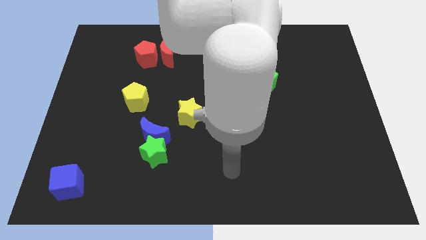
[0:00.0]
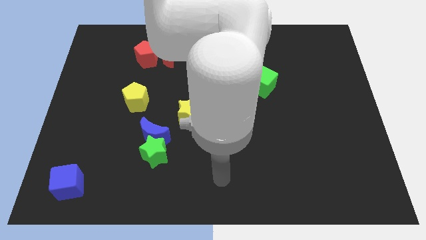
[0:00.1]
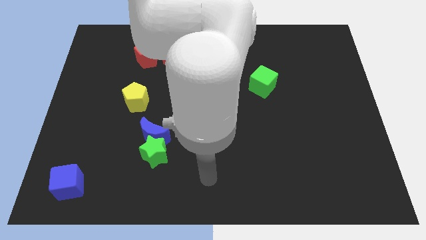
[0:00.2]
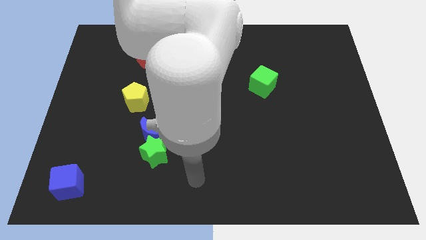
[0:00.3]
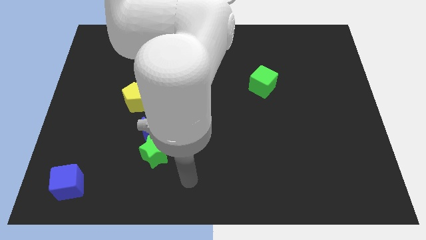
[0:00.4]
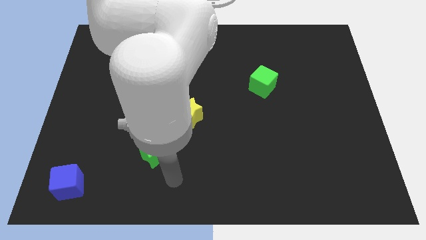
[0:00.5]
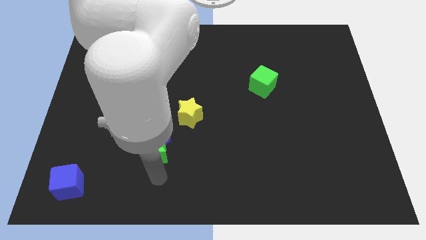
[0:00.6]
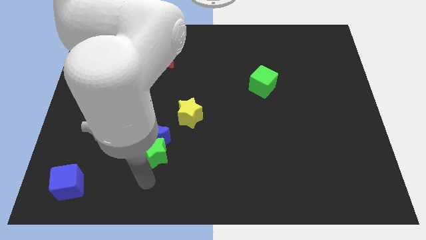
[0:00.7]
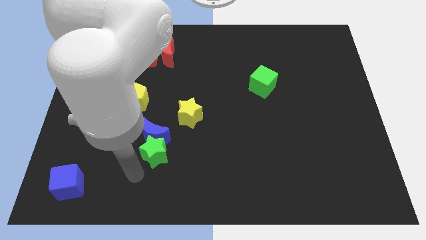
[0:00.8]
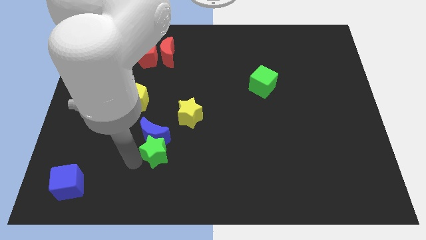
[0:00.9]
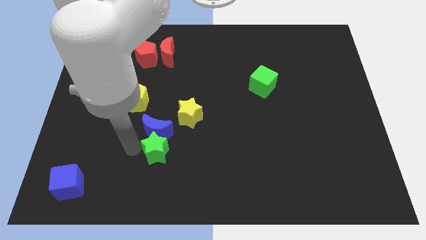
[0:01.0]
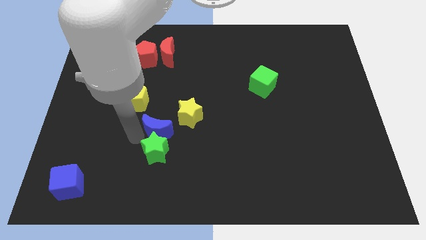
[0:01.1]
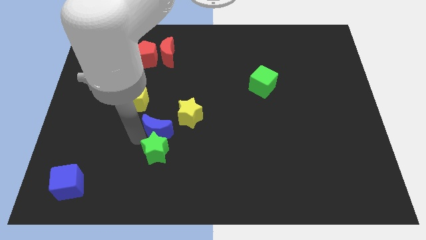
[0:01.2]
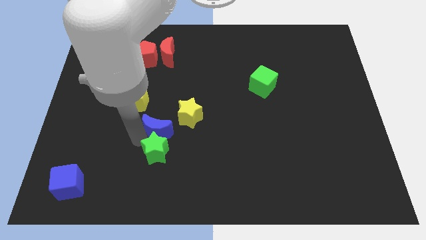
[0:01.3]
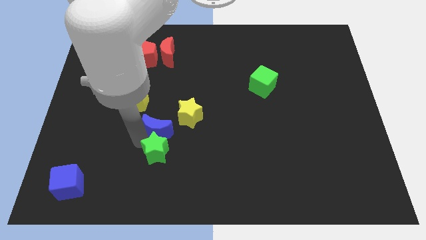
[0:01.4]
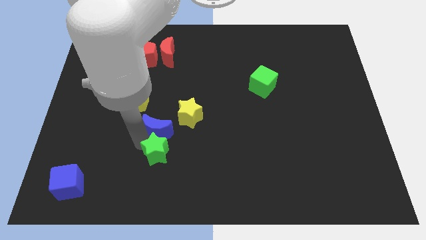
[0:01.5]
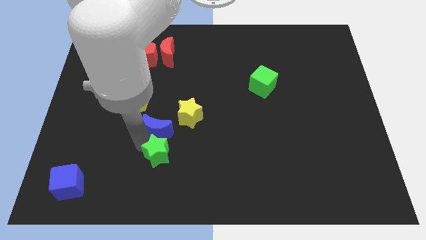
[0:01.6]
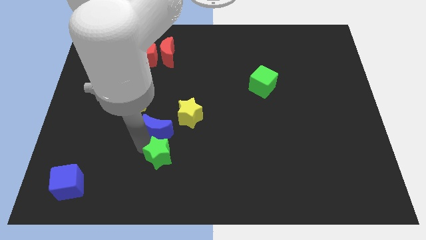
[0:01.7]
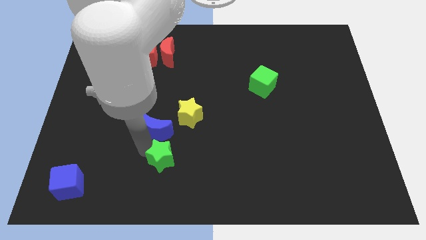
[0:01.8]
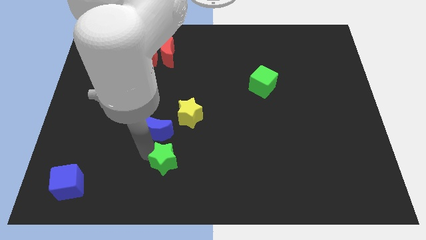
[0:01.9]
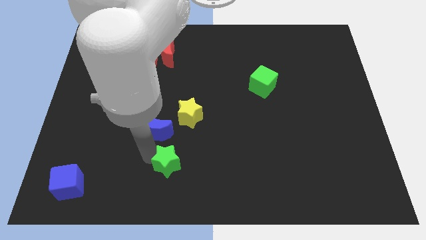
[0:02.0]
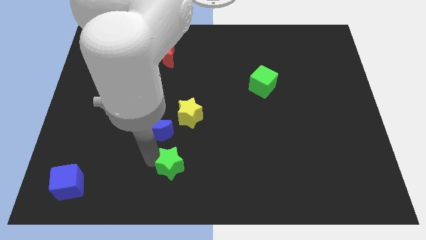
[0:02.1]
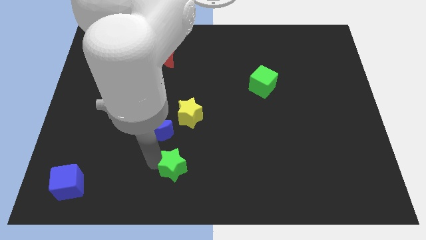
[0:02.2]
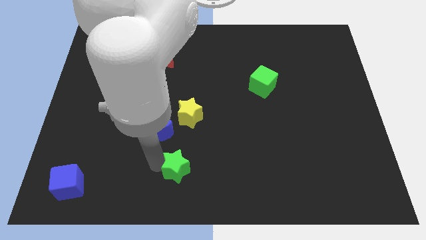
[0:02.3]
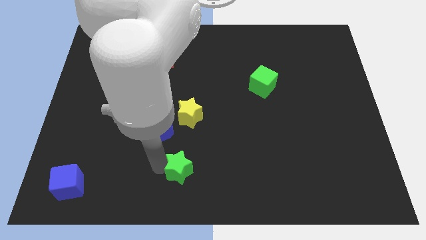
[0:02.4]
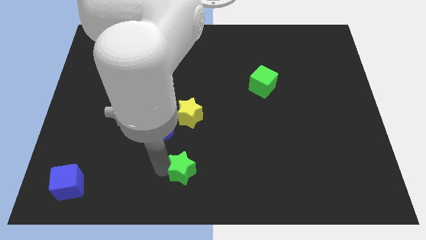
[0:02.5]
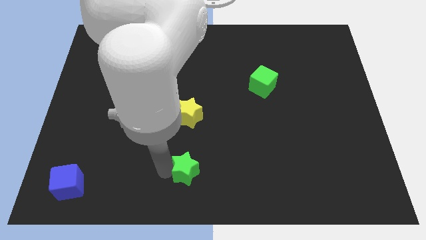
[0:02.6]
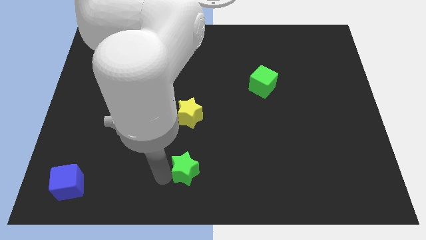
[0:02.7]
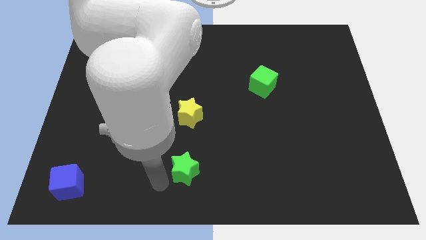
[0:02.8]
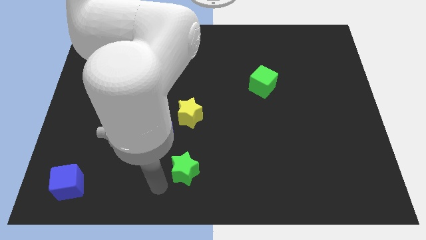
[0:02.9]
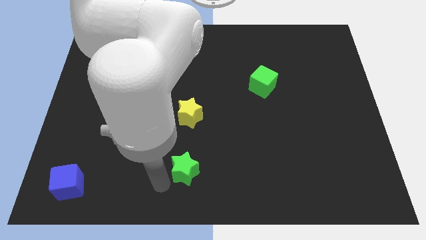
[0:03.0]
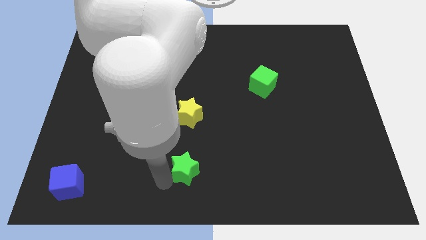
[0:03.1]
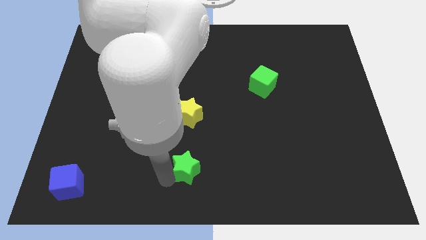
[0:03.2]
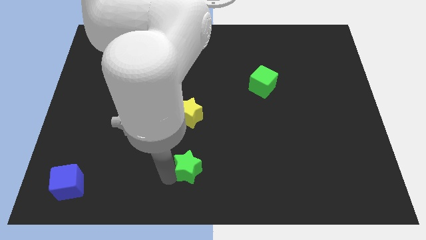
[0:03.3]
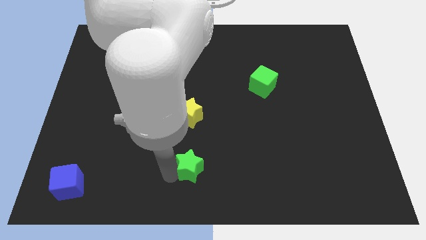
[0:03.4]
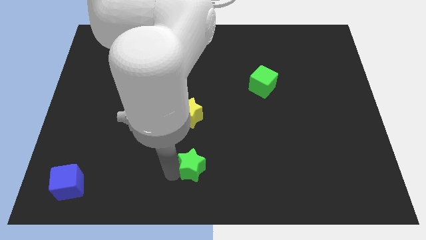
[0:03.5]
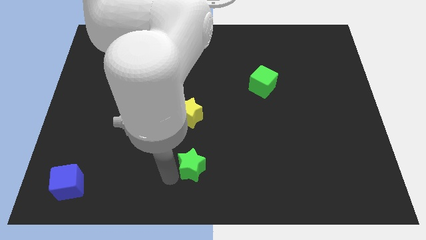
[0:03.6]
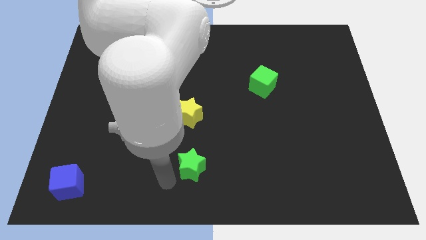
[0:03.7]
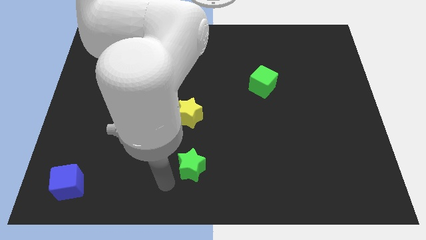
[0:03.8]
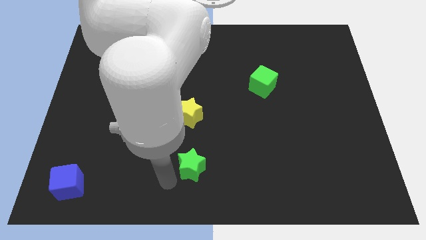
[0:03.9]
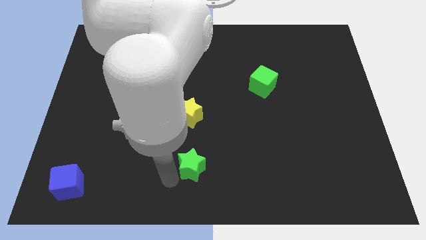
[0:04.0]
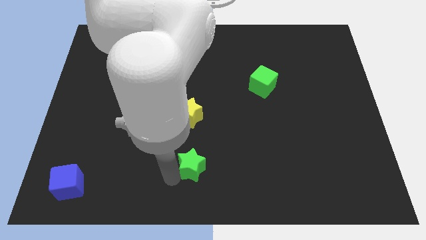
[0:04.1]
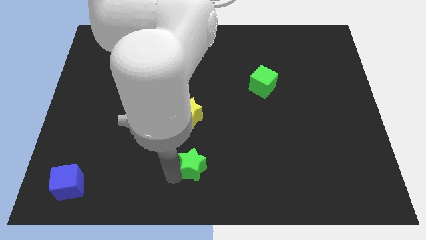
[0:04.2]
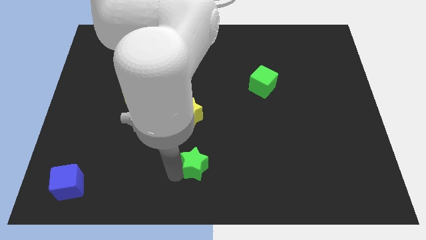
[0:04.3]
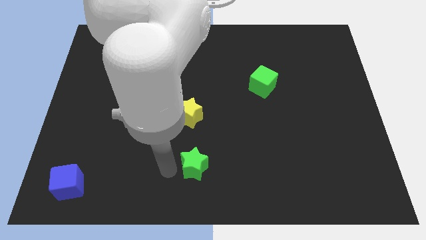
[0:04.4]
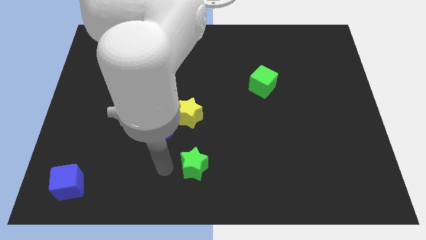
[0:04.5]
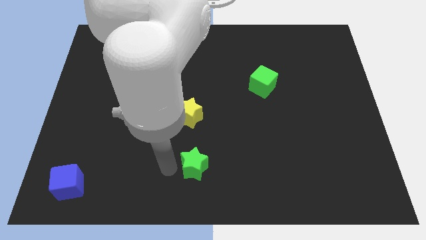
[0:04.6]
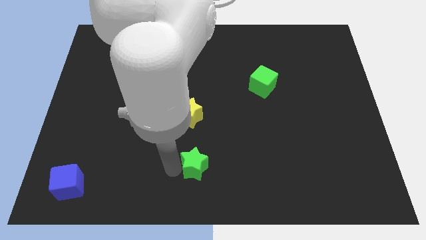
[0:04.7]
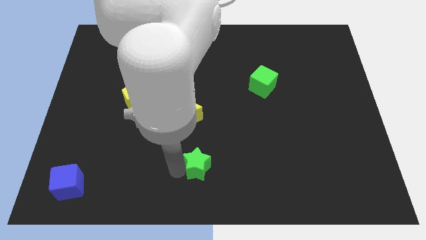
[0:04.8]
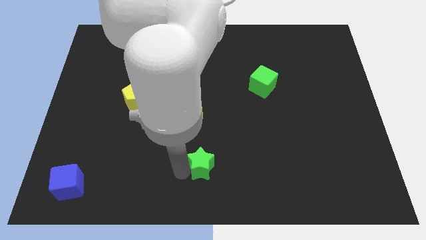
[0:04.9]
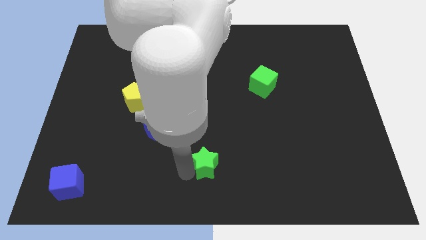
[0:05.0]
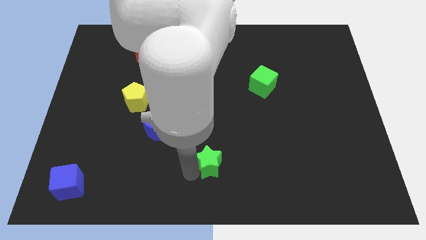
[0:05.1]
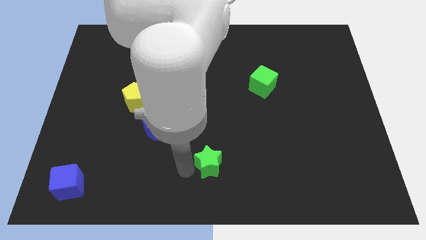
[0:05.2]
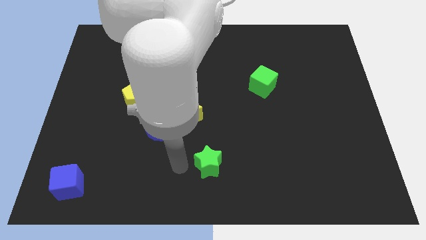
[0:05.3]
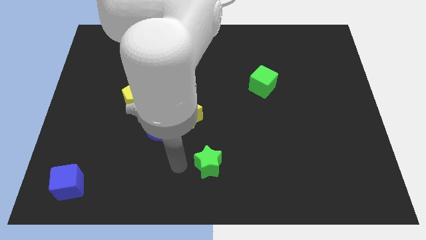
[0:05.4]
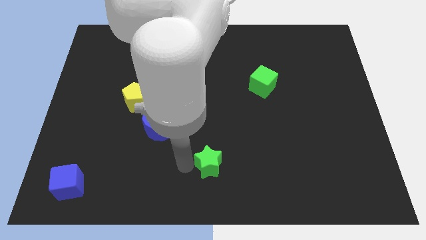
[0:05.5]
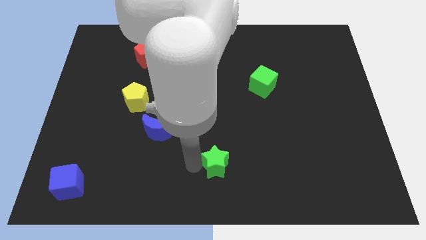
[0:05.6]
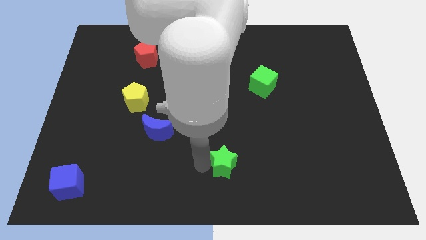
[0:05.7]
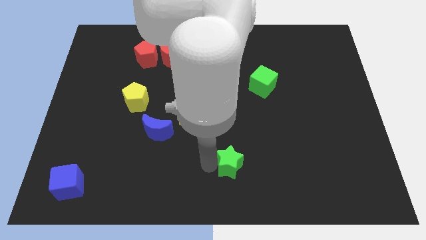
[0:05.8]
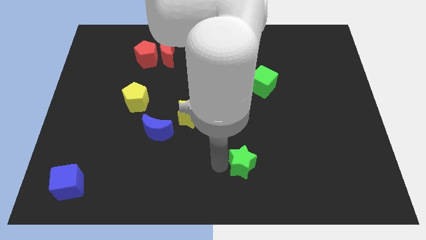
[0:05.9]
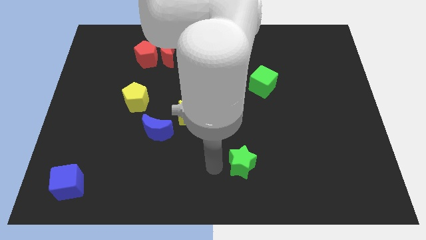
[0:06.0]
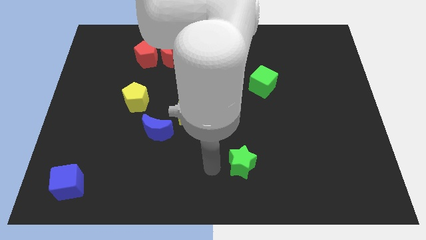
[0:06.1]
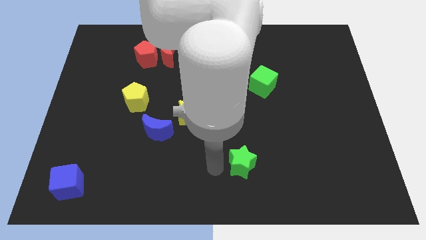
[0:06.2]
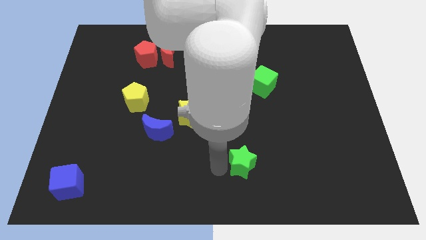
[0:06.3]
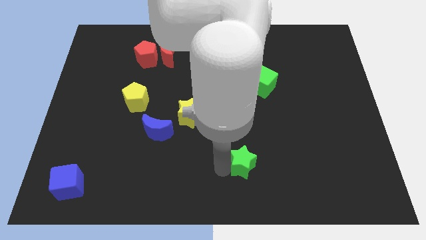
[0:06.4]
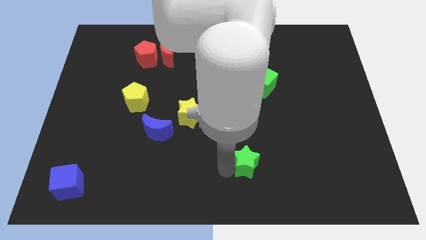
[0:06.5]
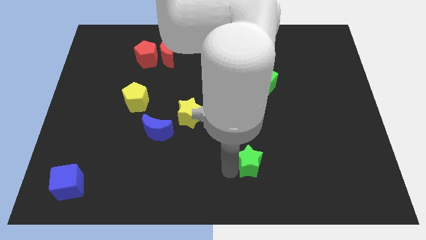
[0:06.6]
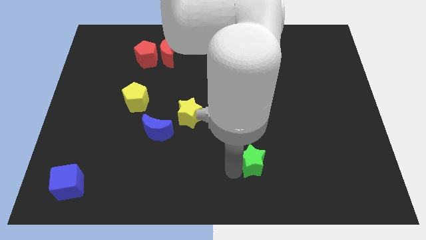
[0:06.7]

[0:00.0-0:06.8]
push the green star right

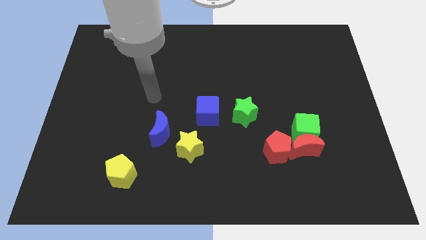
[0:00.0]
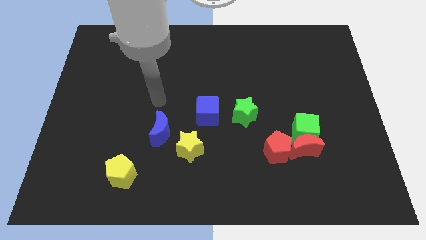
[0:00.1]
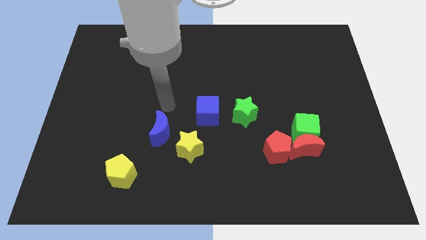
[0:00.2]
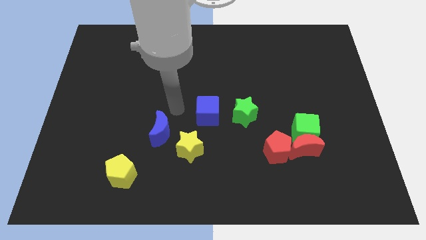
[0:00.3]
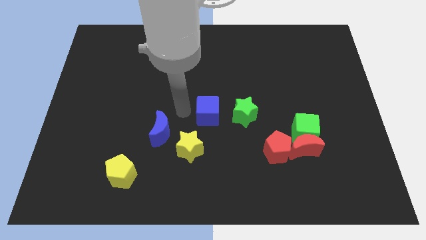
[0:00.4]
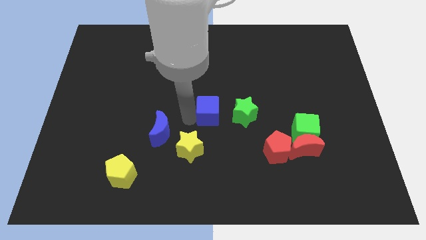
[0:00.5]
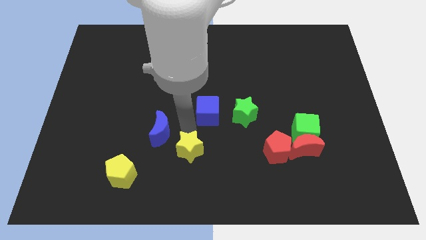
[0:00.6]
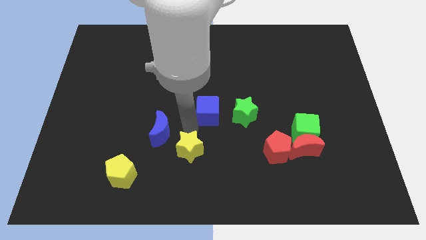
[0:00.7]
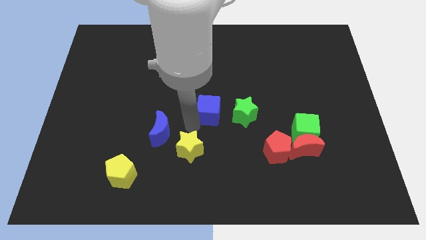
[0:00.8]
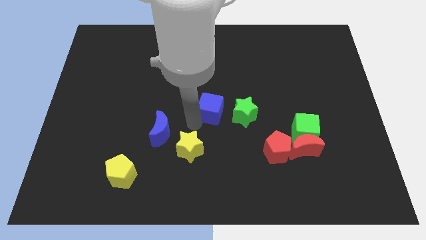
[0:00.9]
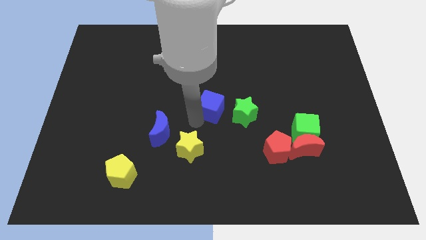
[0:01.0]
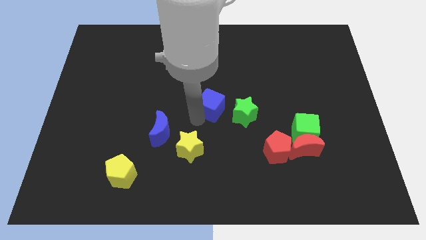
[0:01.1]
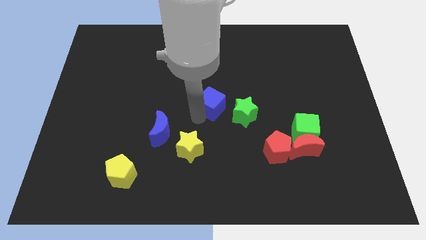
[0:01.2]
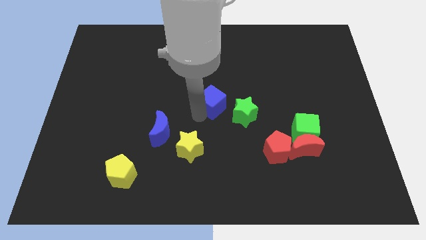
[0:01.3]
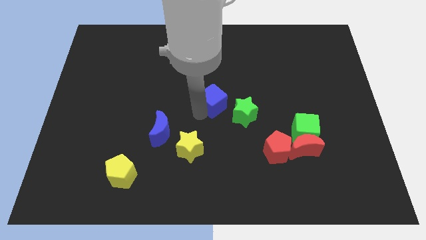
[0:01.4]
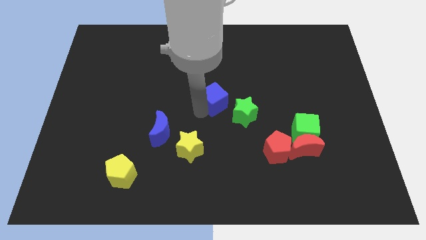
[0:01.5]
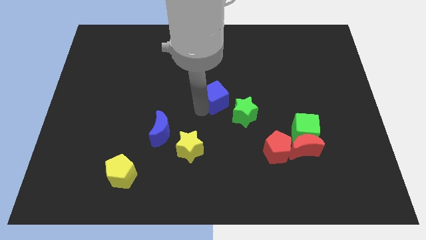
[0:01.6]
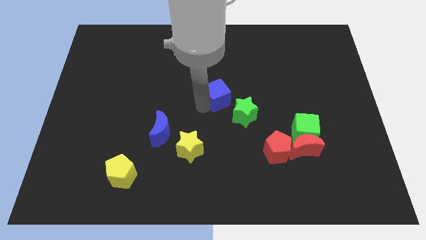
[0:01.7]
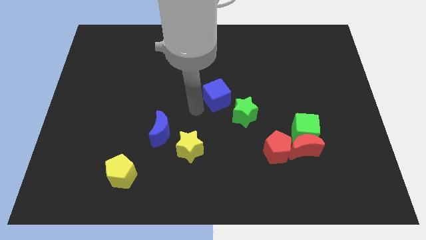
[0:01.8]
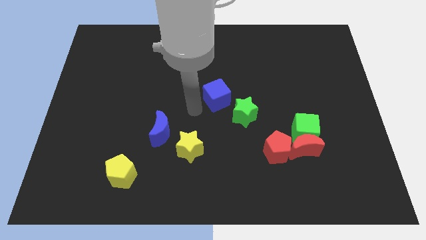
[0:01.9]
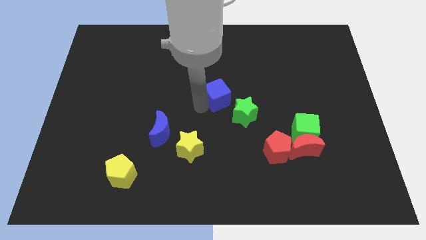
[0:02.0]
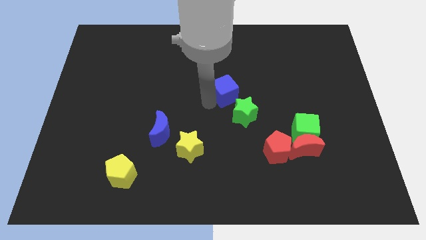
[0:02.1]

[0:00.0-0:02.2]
push the blue cube a little up and right diagonally
